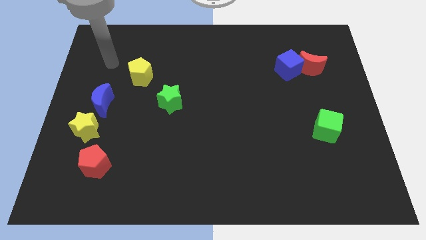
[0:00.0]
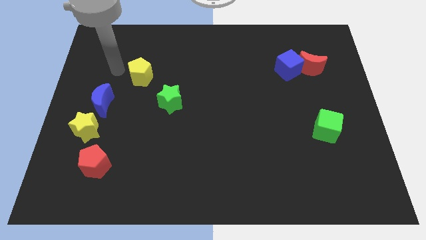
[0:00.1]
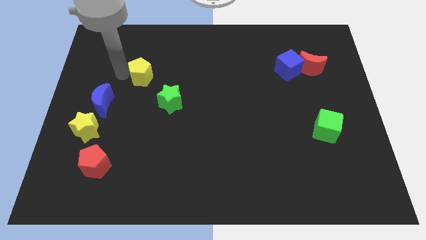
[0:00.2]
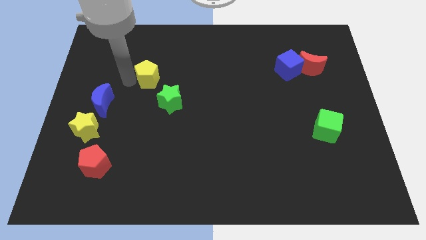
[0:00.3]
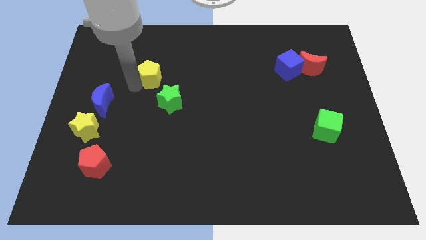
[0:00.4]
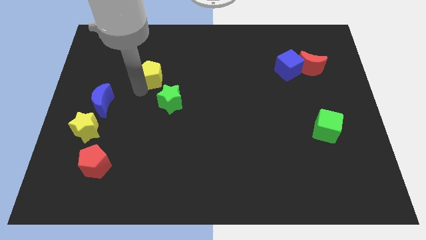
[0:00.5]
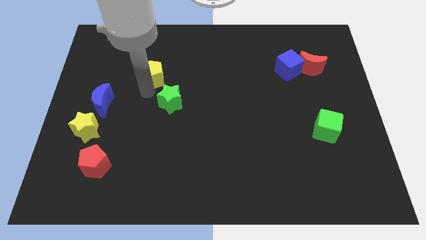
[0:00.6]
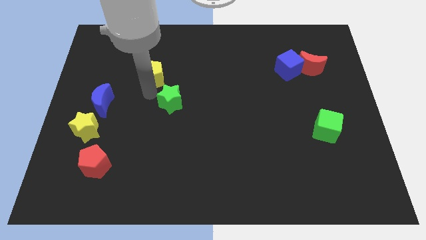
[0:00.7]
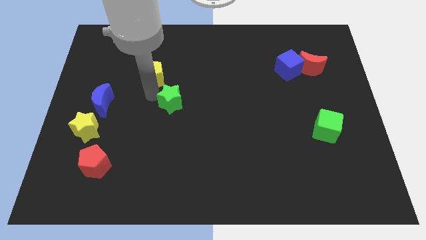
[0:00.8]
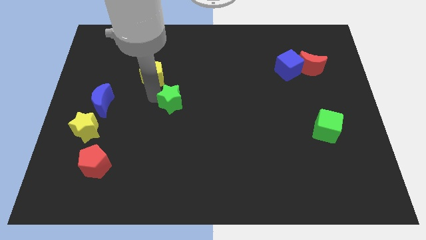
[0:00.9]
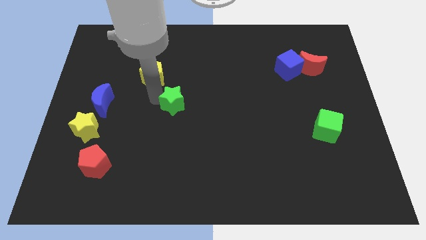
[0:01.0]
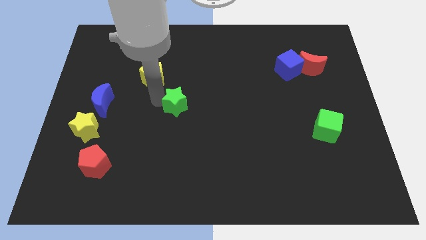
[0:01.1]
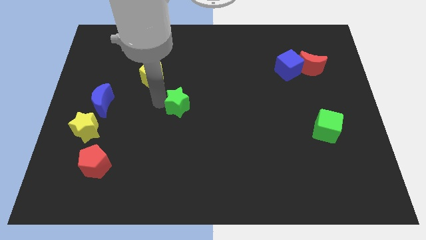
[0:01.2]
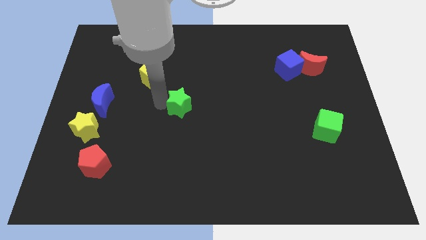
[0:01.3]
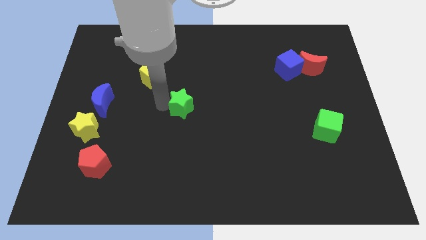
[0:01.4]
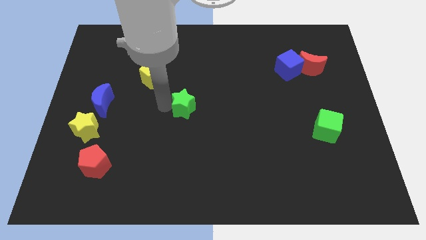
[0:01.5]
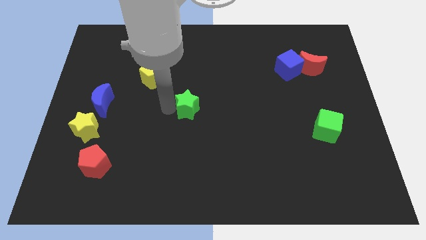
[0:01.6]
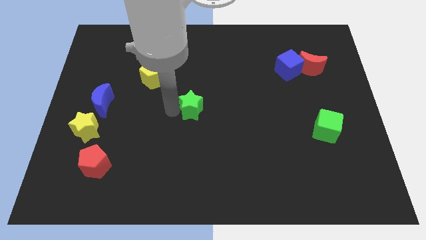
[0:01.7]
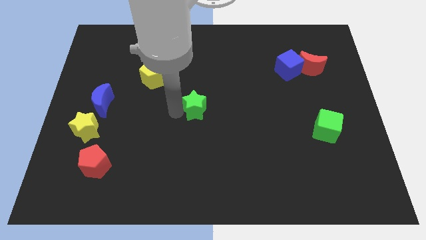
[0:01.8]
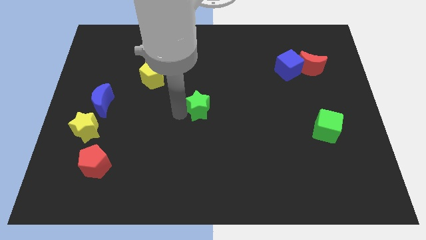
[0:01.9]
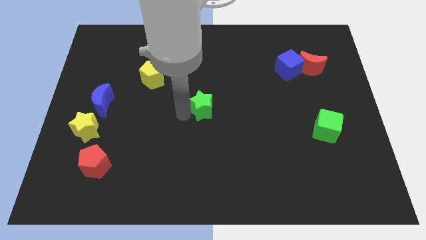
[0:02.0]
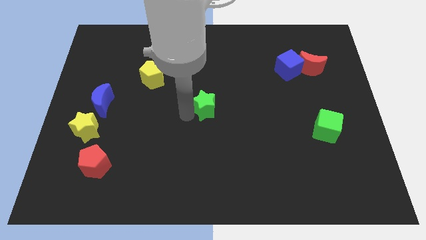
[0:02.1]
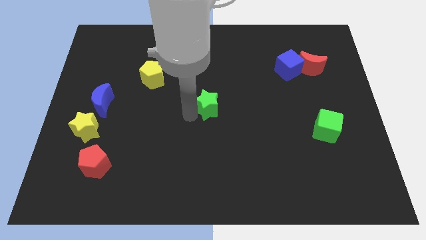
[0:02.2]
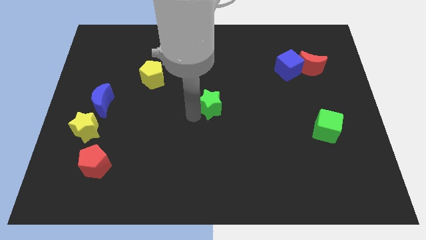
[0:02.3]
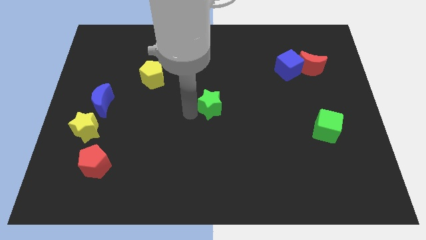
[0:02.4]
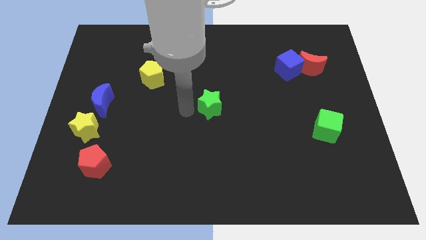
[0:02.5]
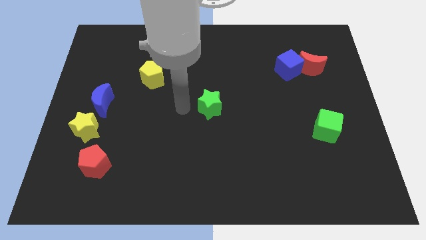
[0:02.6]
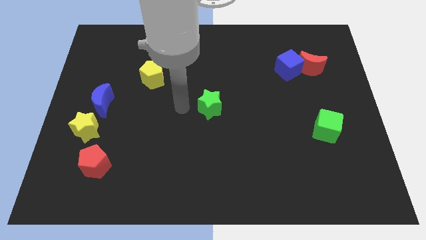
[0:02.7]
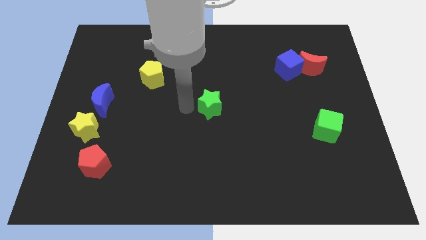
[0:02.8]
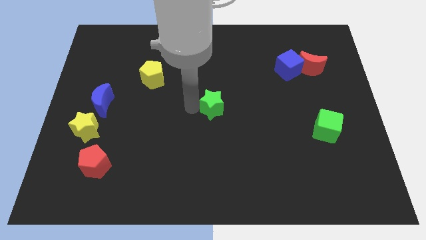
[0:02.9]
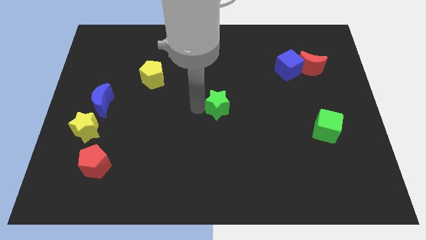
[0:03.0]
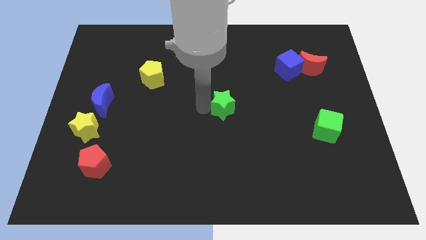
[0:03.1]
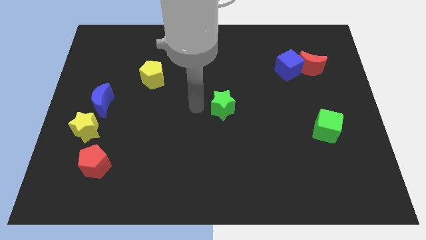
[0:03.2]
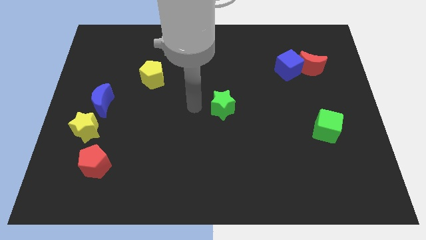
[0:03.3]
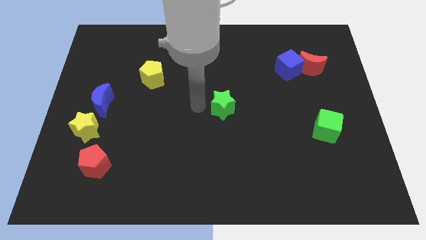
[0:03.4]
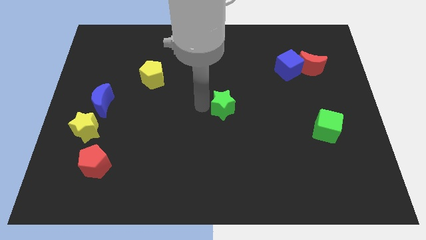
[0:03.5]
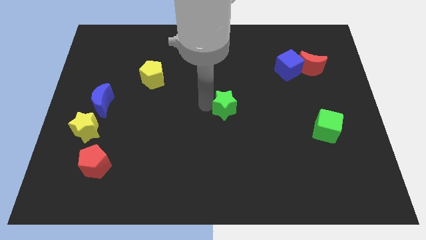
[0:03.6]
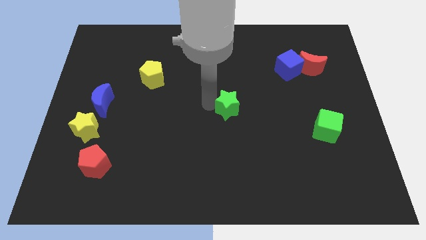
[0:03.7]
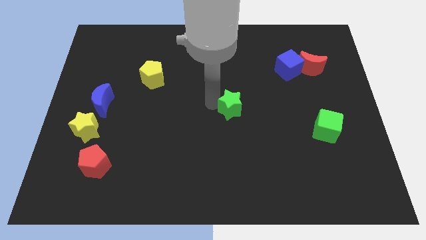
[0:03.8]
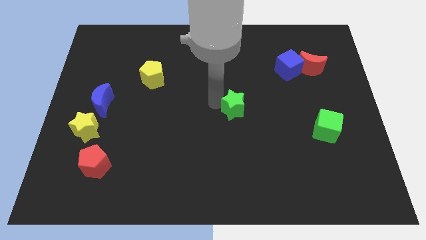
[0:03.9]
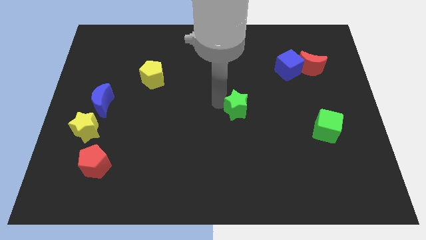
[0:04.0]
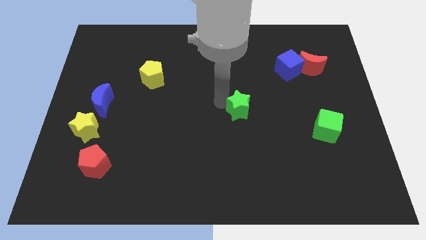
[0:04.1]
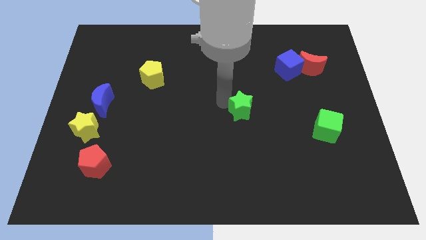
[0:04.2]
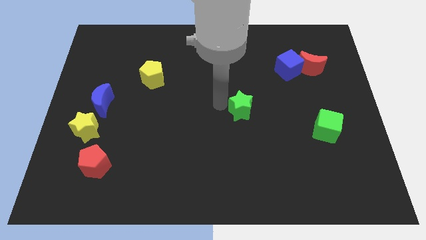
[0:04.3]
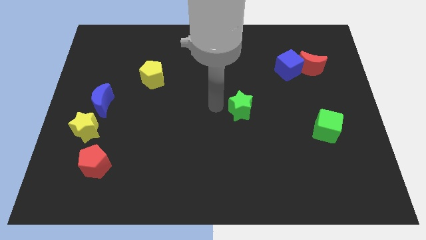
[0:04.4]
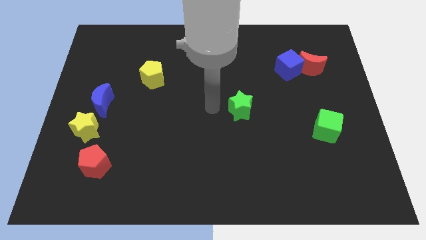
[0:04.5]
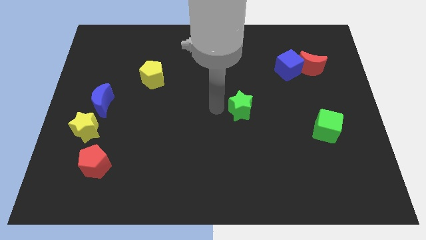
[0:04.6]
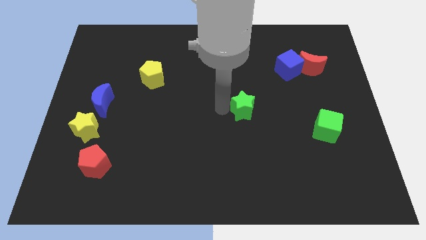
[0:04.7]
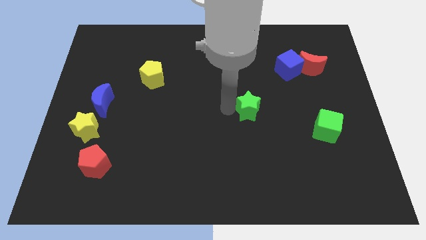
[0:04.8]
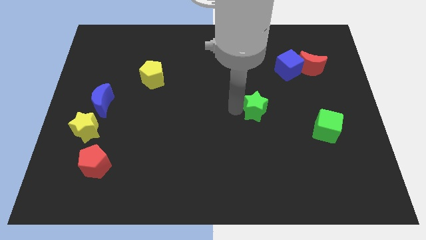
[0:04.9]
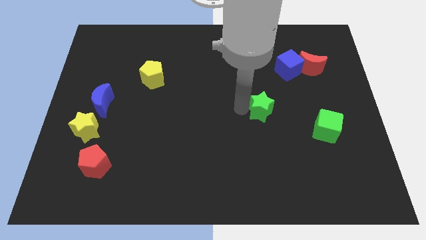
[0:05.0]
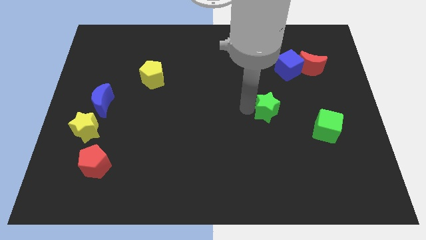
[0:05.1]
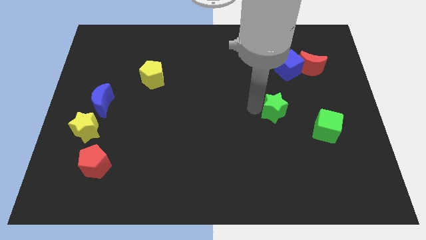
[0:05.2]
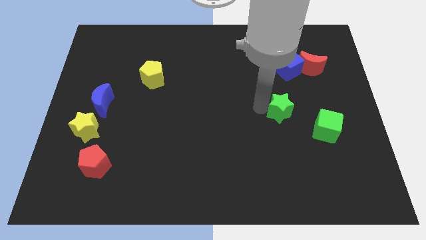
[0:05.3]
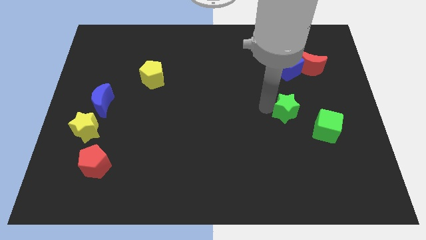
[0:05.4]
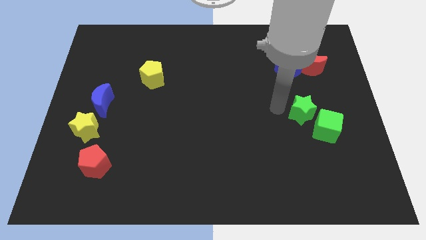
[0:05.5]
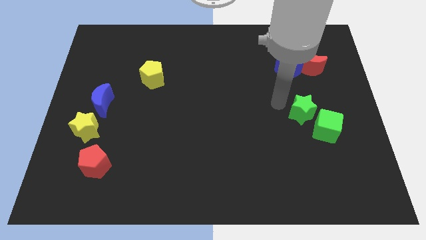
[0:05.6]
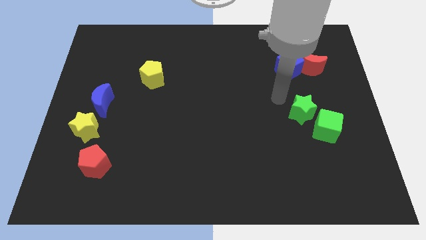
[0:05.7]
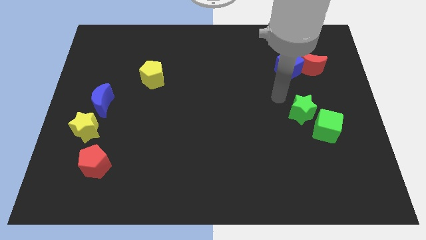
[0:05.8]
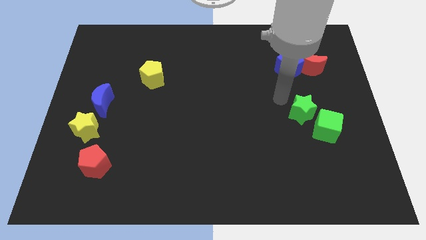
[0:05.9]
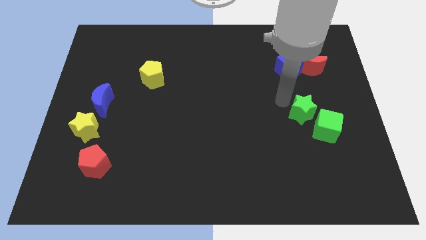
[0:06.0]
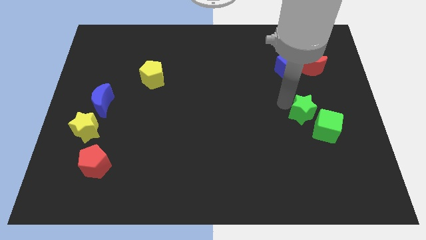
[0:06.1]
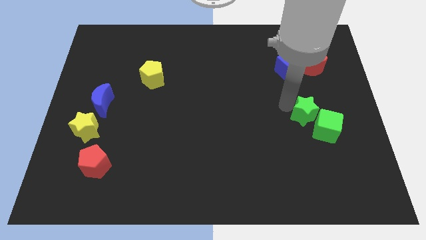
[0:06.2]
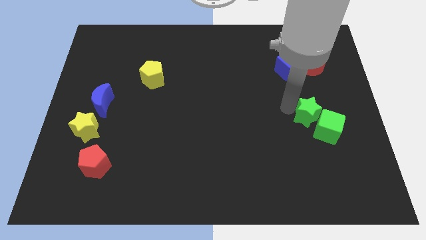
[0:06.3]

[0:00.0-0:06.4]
push the green star next to the green cube
